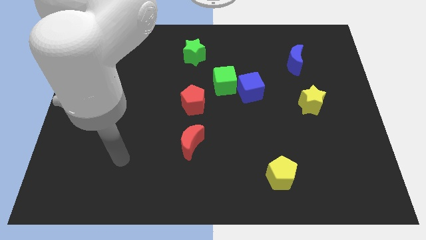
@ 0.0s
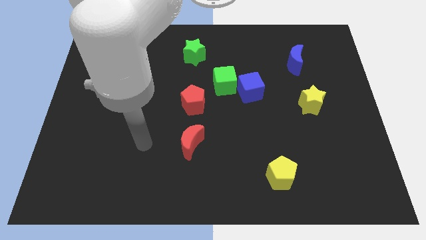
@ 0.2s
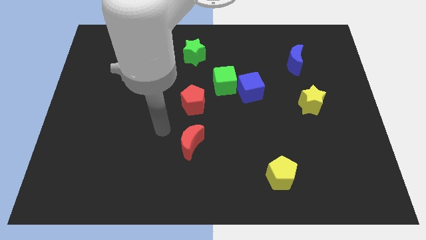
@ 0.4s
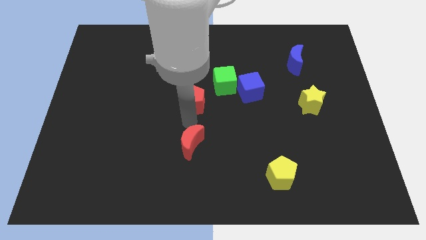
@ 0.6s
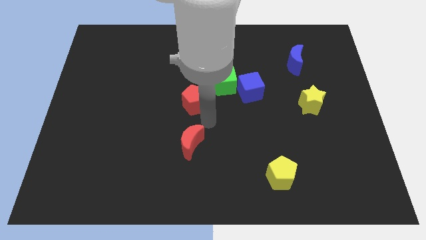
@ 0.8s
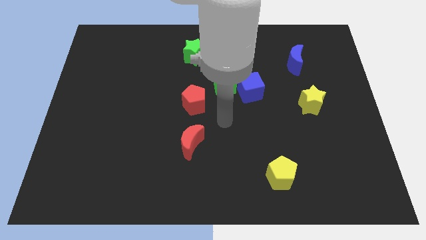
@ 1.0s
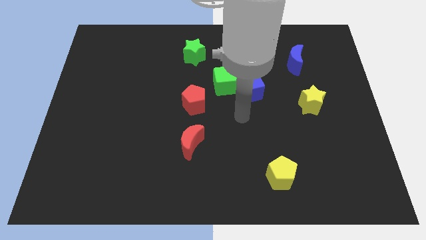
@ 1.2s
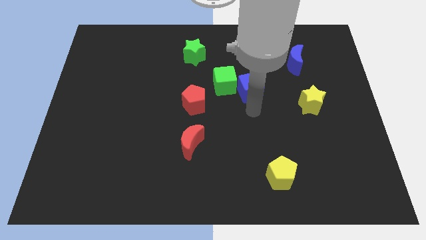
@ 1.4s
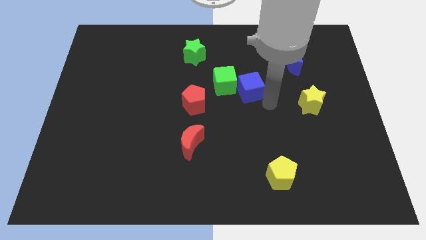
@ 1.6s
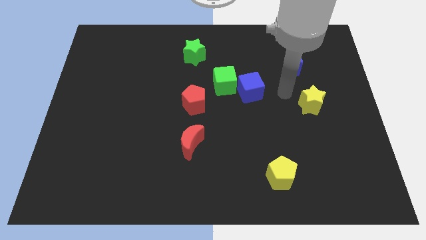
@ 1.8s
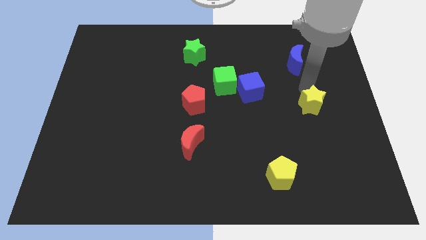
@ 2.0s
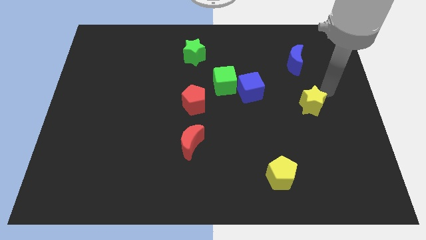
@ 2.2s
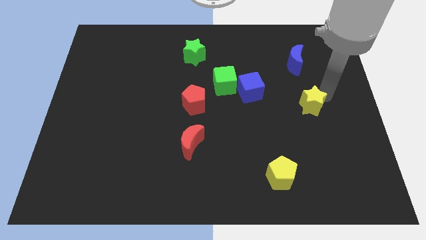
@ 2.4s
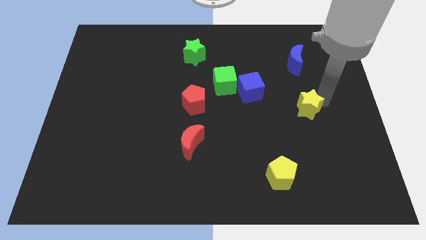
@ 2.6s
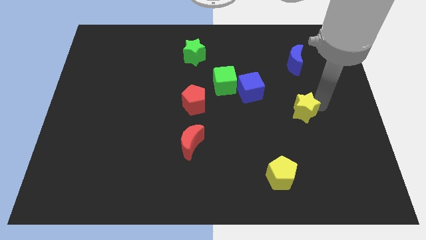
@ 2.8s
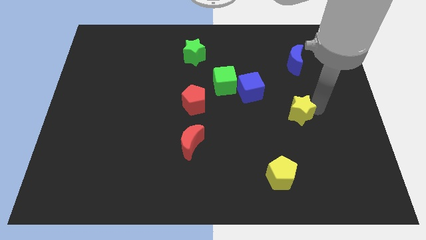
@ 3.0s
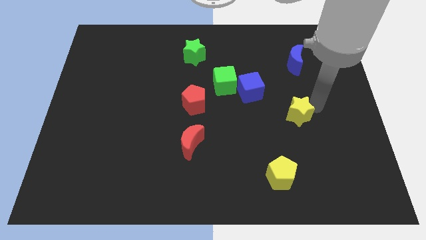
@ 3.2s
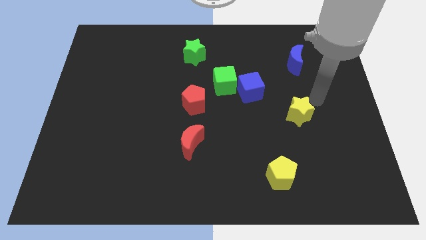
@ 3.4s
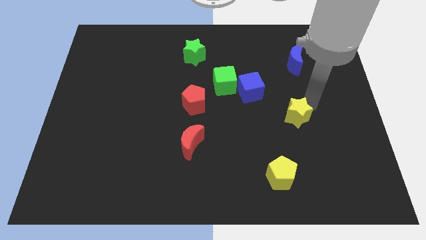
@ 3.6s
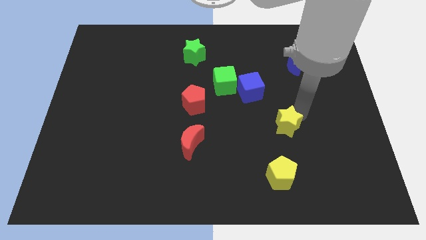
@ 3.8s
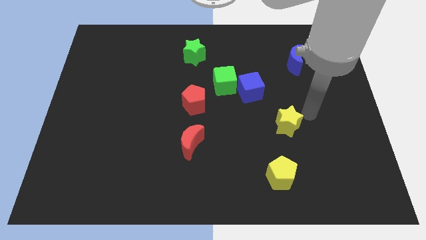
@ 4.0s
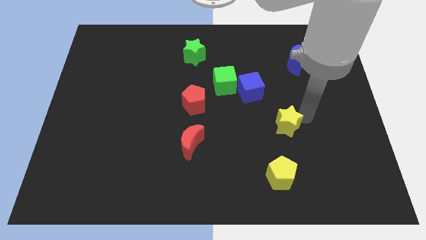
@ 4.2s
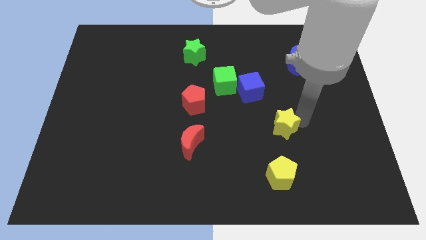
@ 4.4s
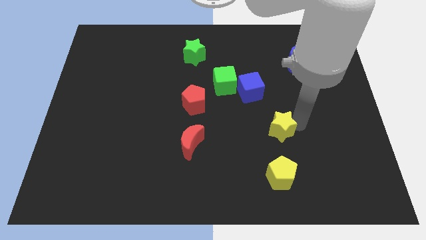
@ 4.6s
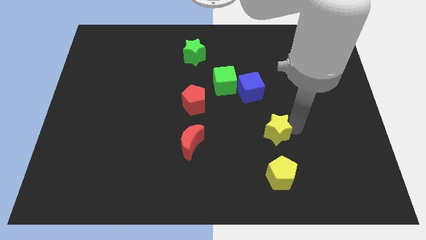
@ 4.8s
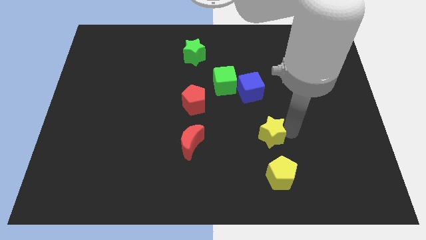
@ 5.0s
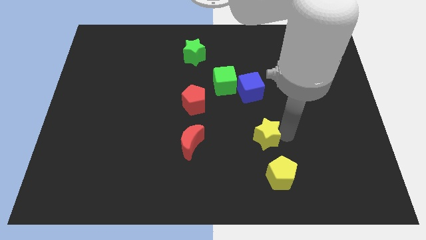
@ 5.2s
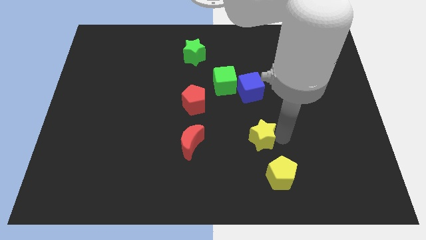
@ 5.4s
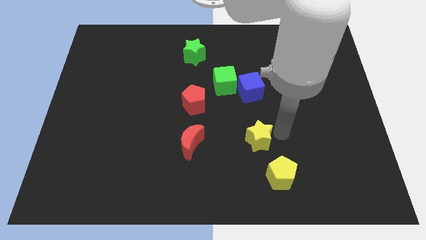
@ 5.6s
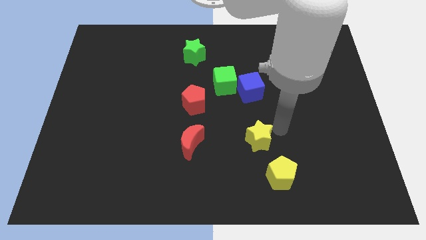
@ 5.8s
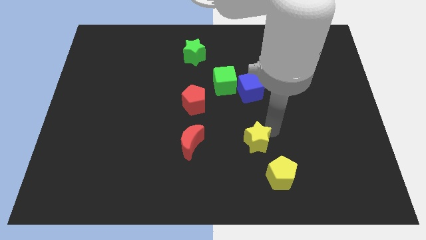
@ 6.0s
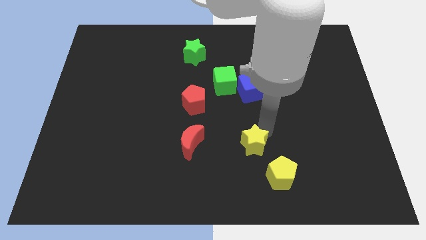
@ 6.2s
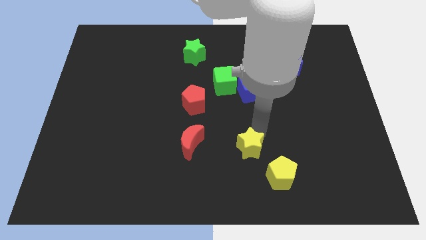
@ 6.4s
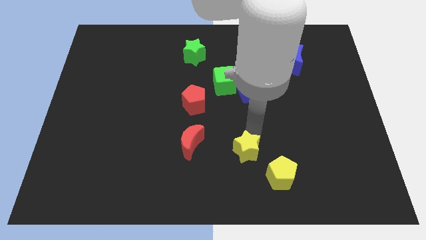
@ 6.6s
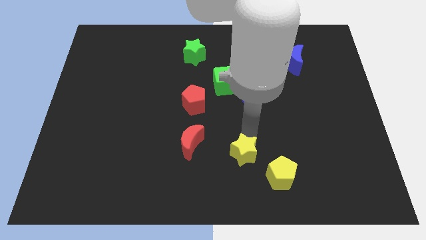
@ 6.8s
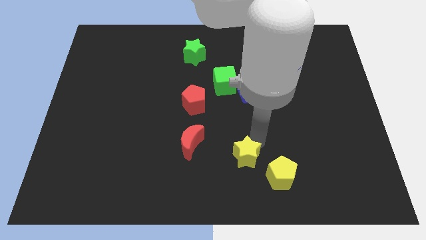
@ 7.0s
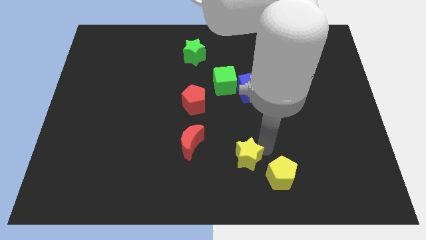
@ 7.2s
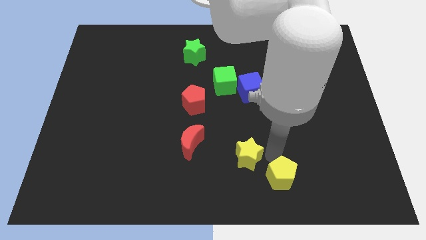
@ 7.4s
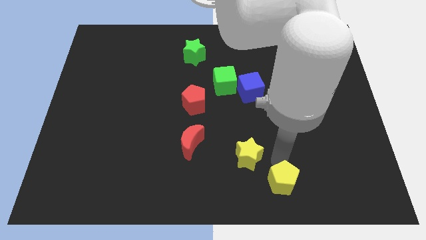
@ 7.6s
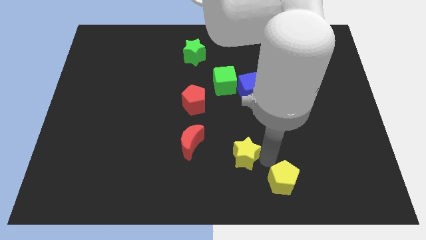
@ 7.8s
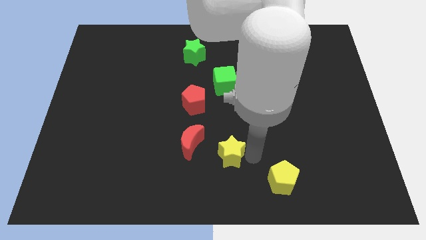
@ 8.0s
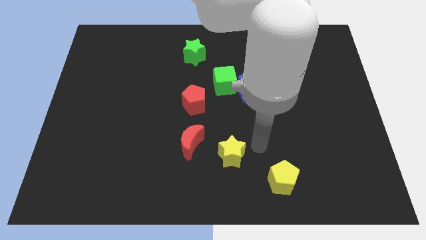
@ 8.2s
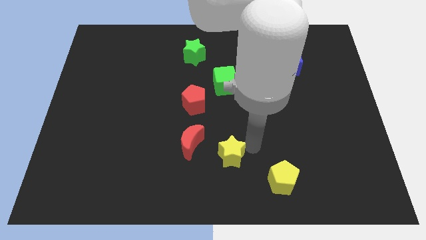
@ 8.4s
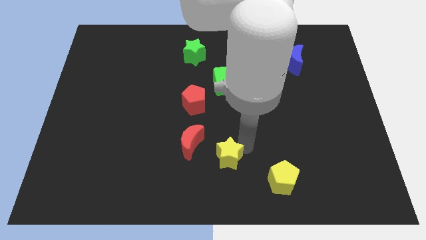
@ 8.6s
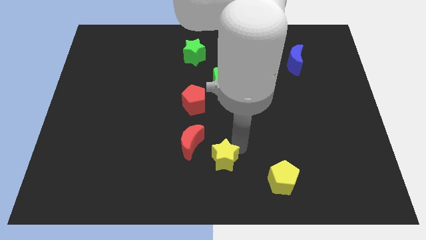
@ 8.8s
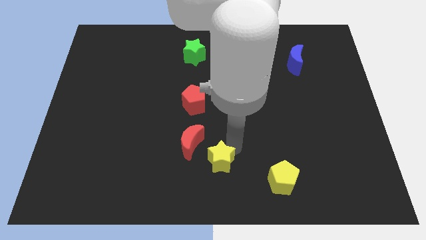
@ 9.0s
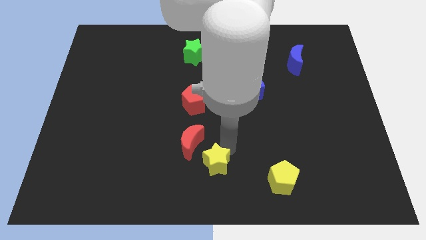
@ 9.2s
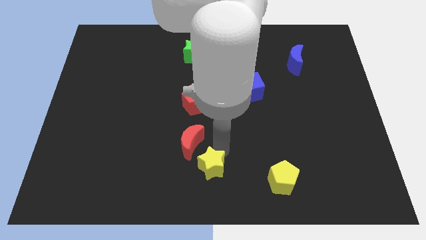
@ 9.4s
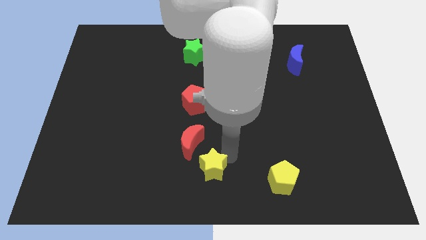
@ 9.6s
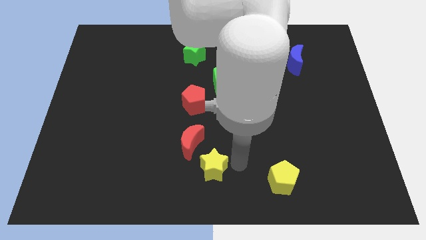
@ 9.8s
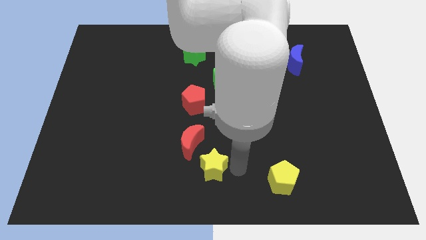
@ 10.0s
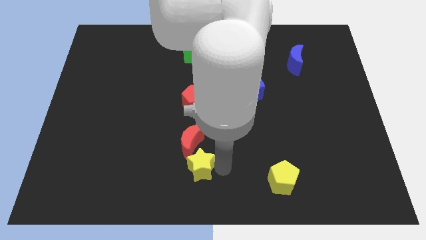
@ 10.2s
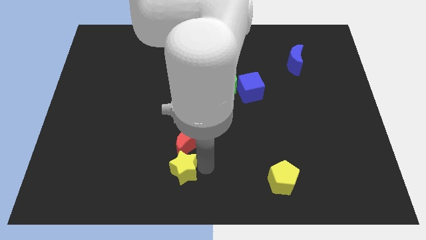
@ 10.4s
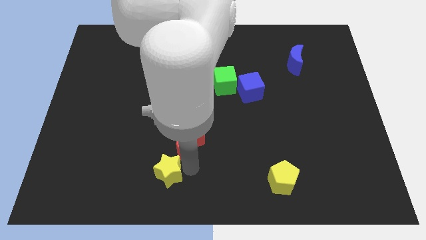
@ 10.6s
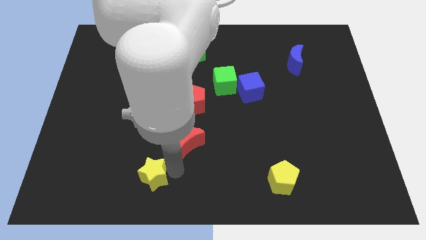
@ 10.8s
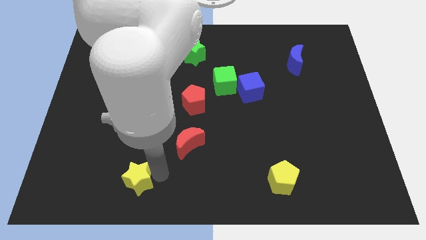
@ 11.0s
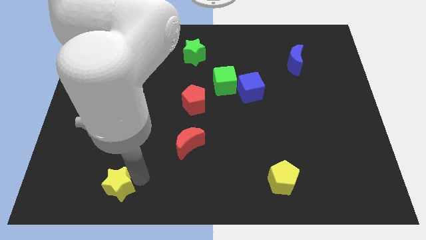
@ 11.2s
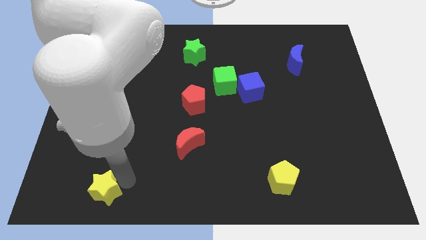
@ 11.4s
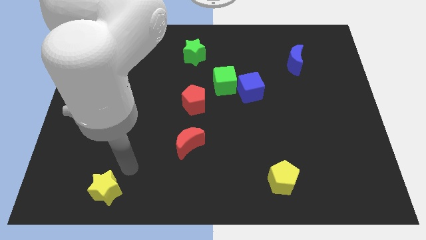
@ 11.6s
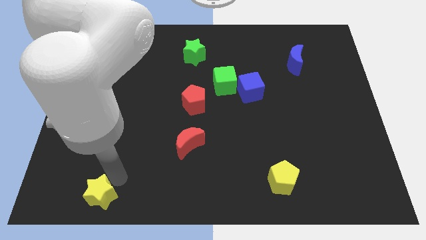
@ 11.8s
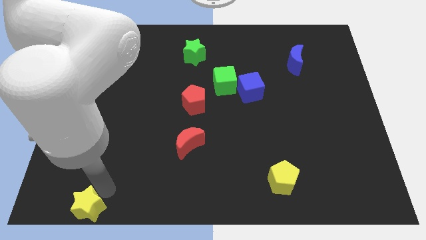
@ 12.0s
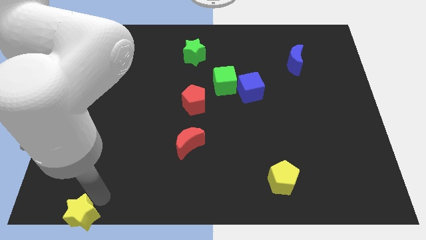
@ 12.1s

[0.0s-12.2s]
move the yellow star to the bottom left
